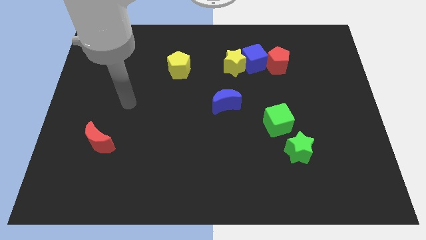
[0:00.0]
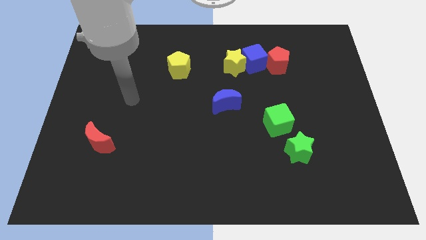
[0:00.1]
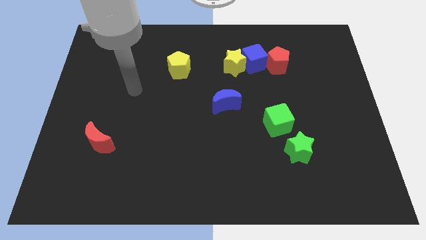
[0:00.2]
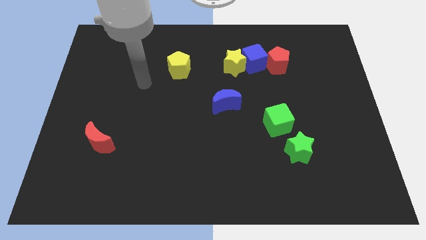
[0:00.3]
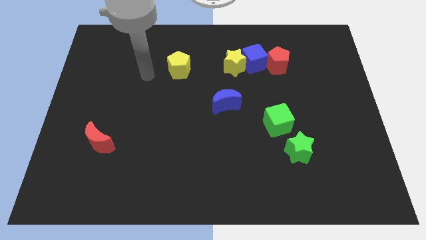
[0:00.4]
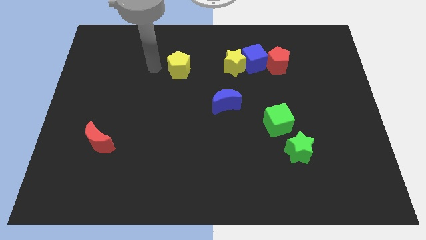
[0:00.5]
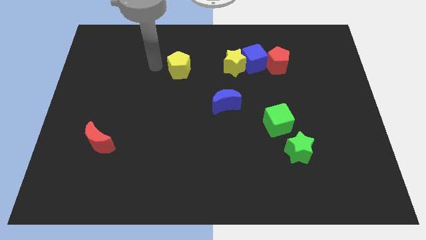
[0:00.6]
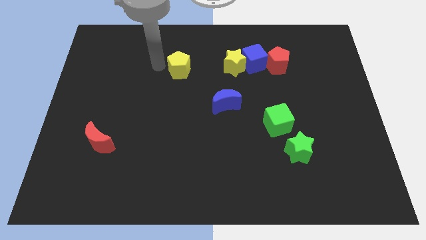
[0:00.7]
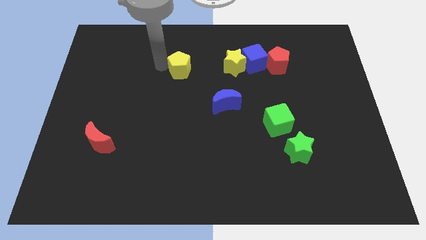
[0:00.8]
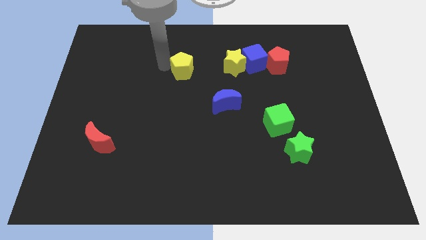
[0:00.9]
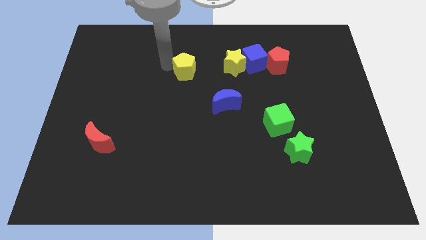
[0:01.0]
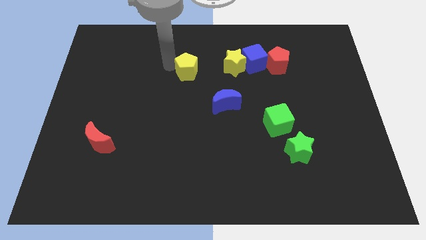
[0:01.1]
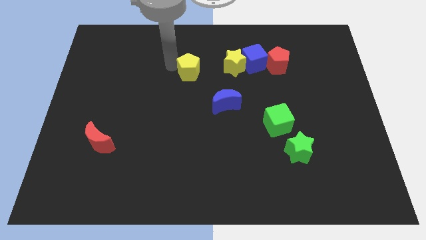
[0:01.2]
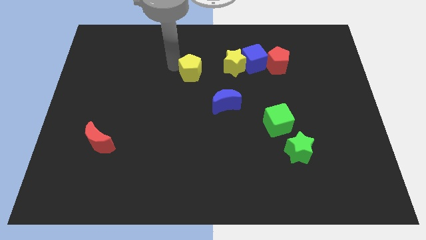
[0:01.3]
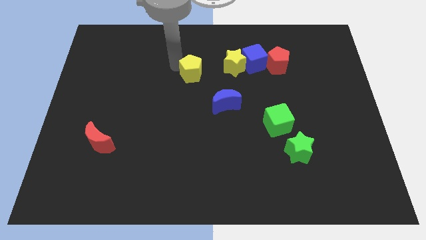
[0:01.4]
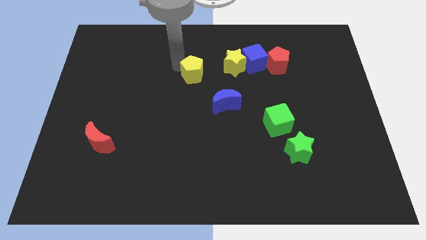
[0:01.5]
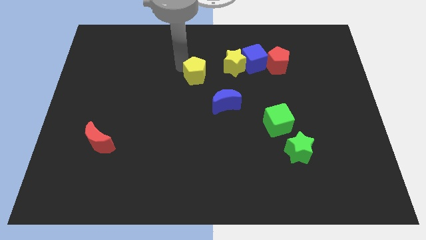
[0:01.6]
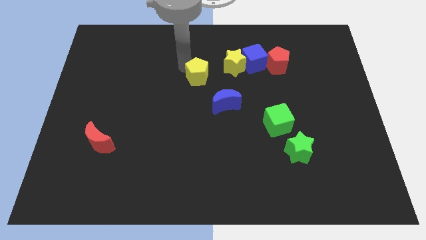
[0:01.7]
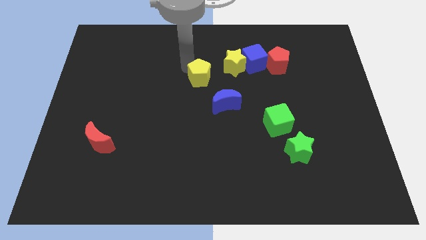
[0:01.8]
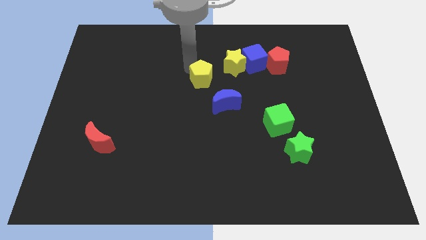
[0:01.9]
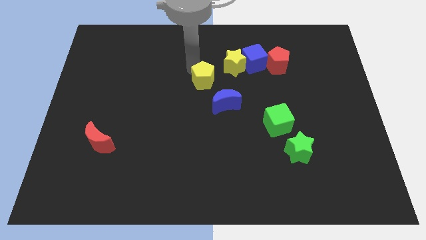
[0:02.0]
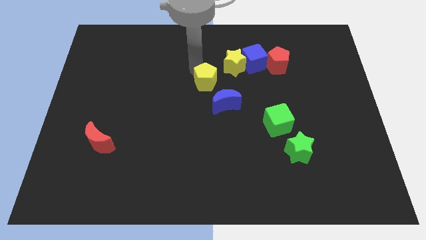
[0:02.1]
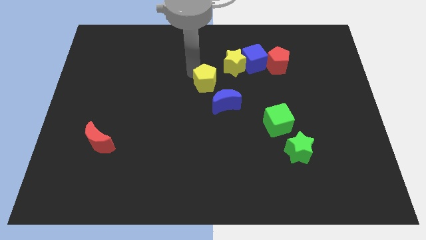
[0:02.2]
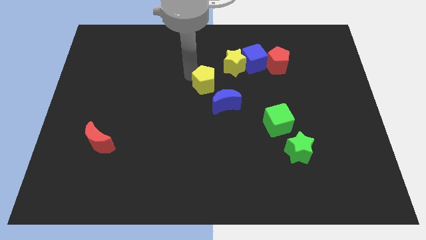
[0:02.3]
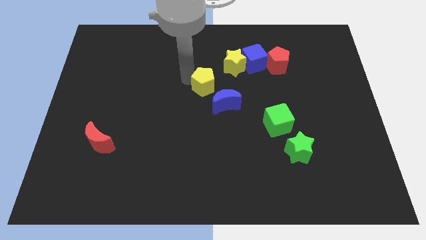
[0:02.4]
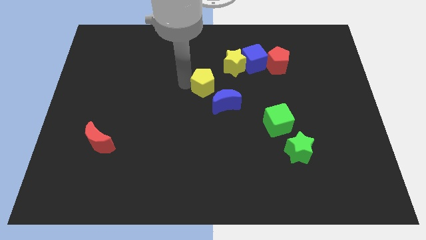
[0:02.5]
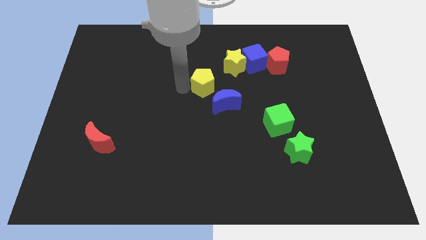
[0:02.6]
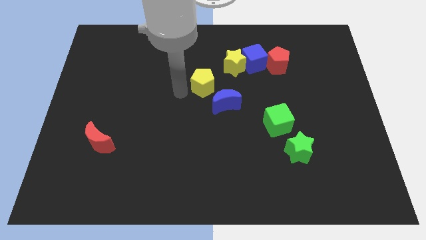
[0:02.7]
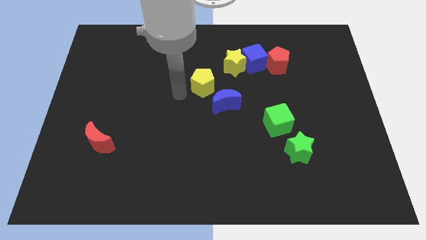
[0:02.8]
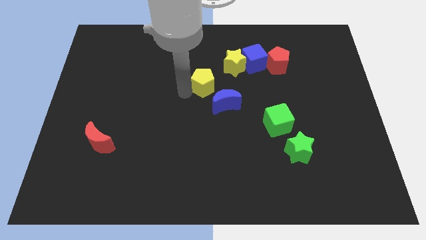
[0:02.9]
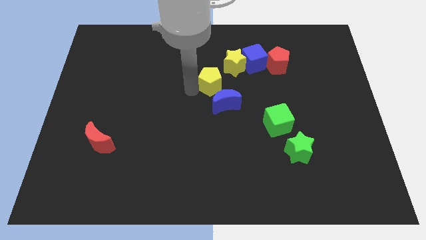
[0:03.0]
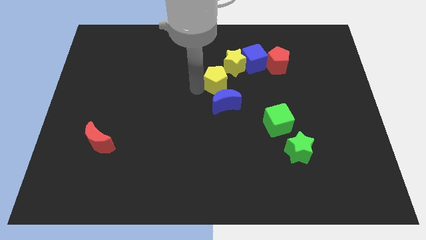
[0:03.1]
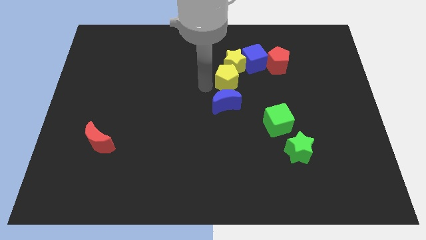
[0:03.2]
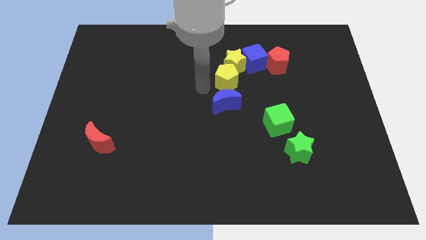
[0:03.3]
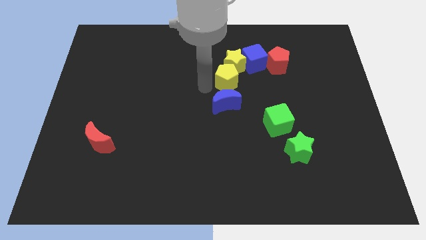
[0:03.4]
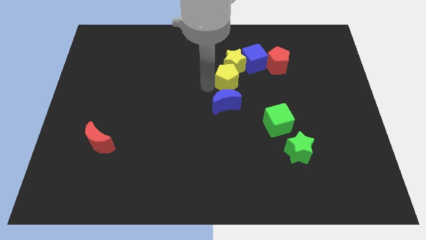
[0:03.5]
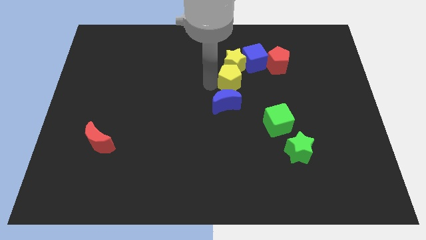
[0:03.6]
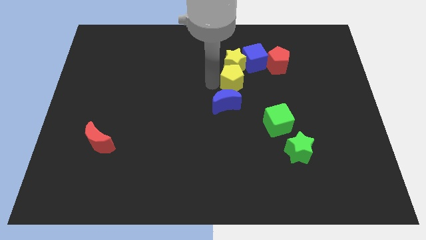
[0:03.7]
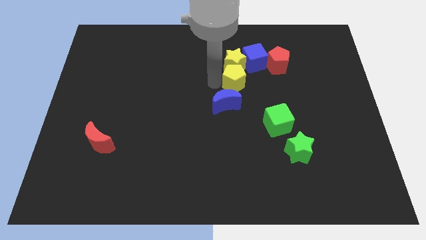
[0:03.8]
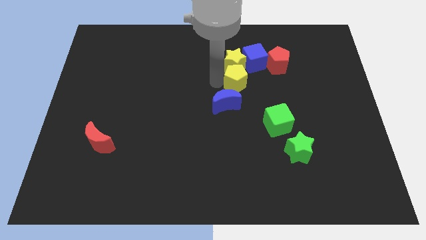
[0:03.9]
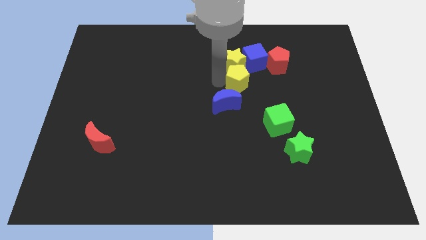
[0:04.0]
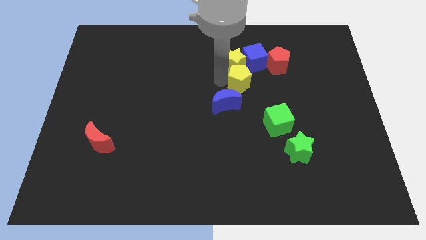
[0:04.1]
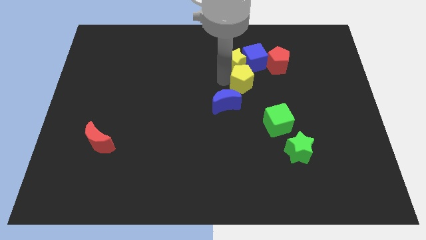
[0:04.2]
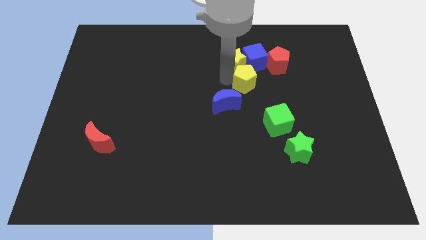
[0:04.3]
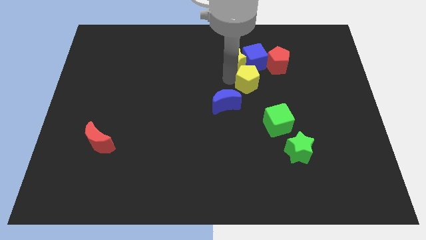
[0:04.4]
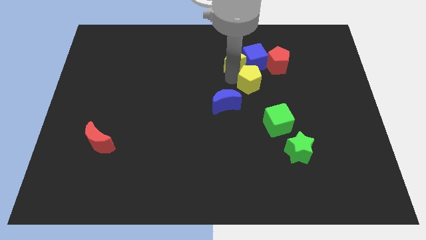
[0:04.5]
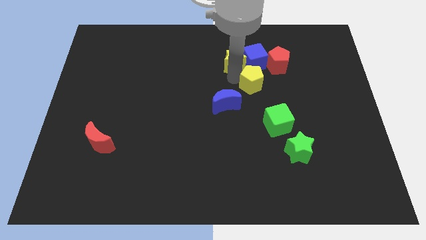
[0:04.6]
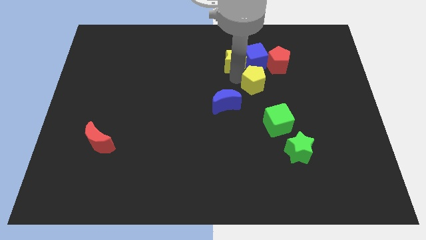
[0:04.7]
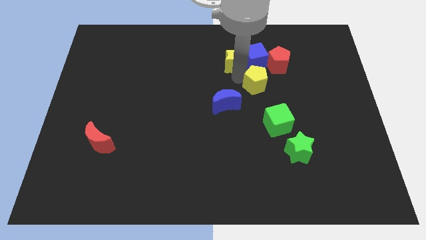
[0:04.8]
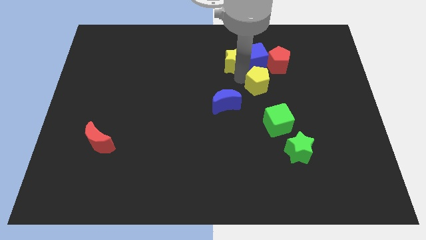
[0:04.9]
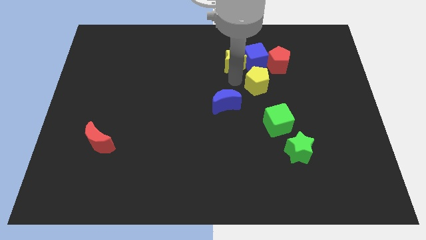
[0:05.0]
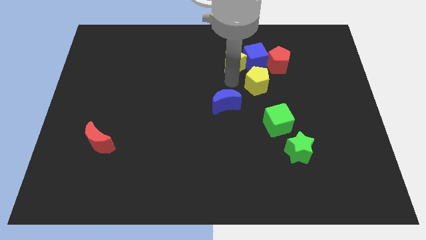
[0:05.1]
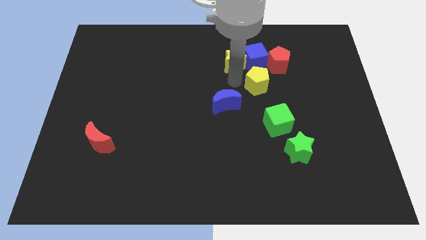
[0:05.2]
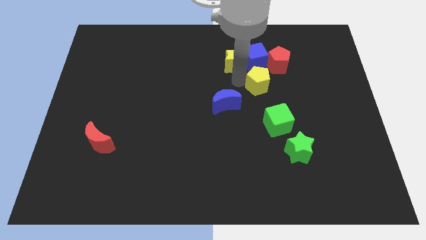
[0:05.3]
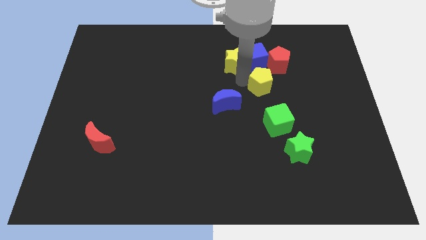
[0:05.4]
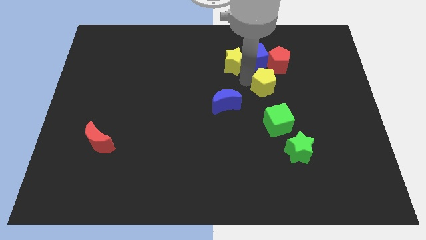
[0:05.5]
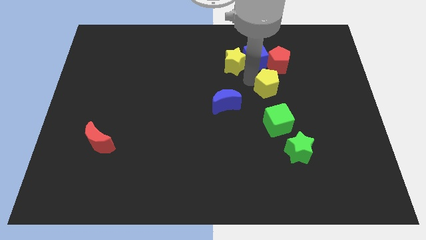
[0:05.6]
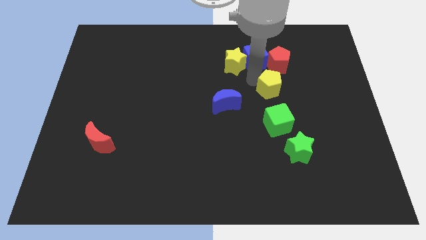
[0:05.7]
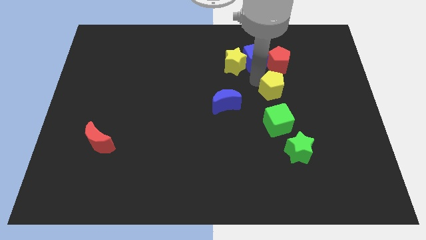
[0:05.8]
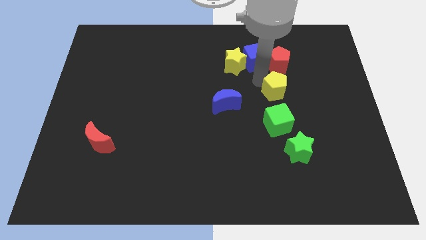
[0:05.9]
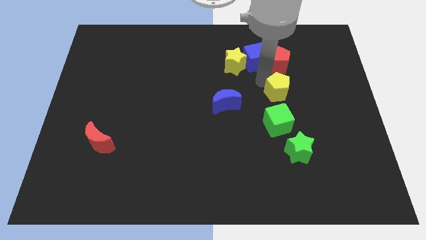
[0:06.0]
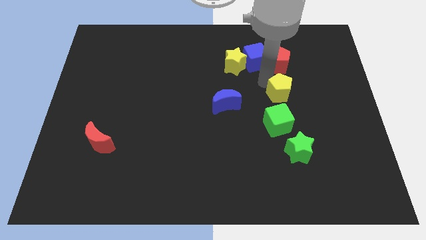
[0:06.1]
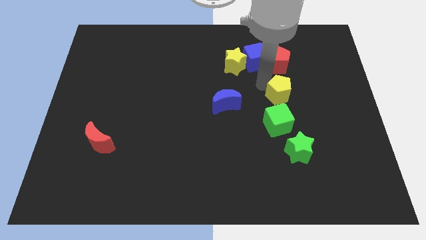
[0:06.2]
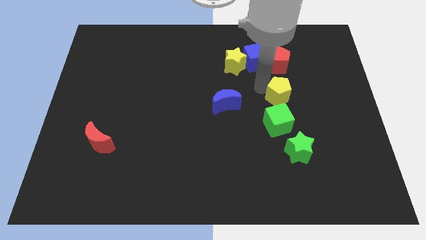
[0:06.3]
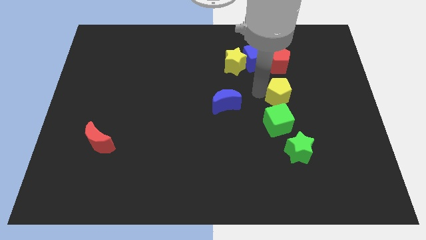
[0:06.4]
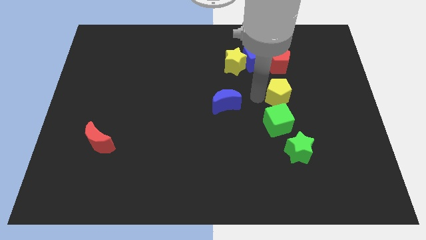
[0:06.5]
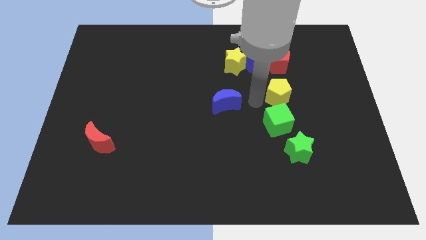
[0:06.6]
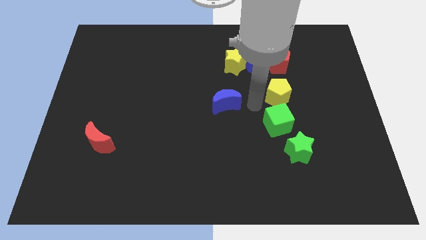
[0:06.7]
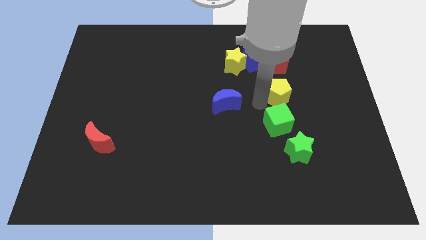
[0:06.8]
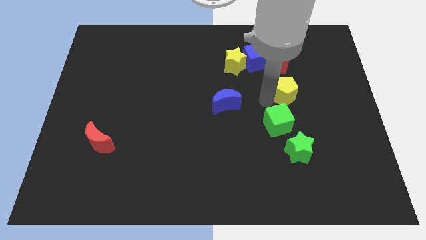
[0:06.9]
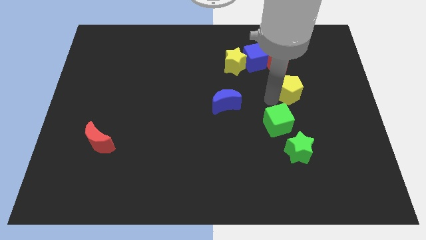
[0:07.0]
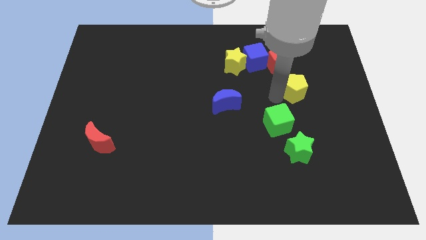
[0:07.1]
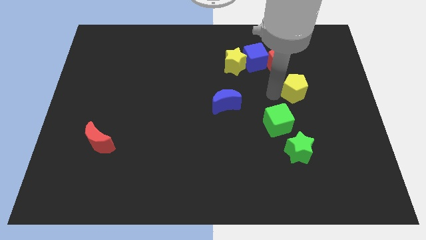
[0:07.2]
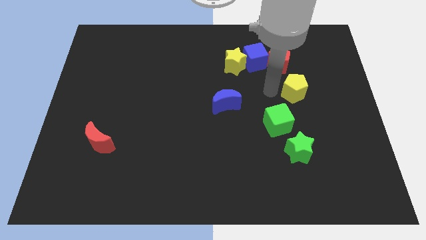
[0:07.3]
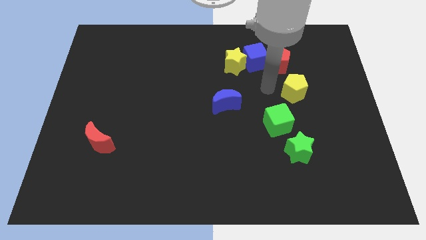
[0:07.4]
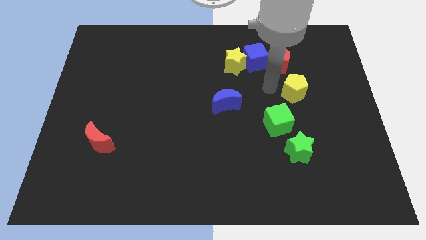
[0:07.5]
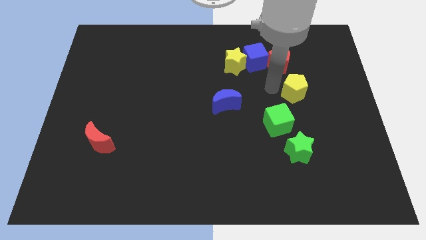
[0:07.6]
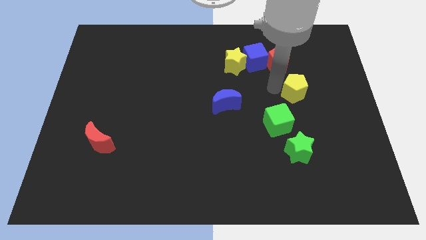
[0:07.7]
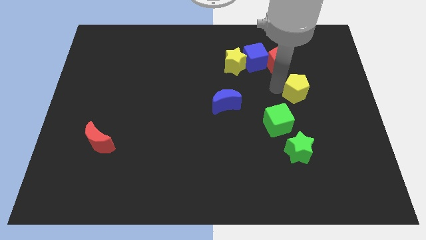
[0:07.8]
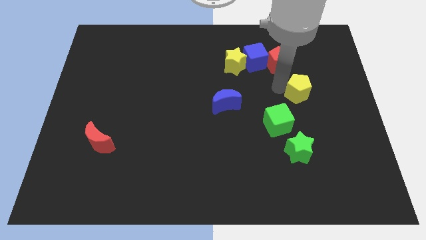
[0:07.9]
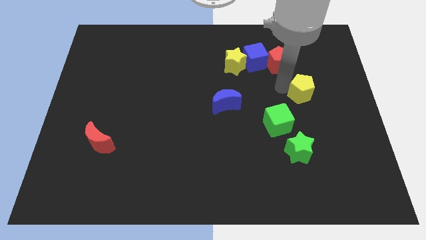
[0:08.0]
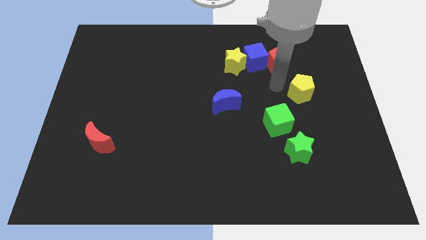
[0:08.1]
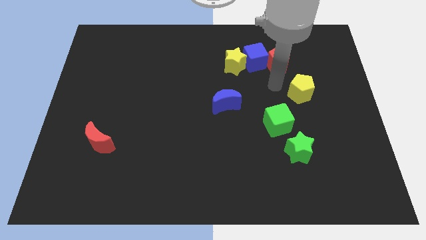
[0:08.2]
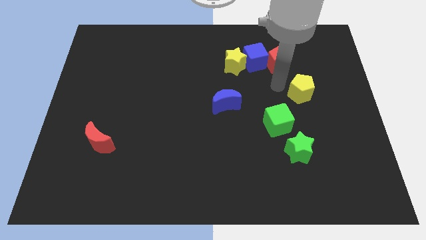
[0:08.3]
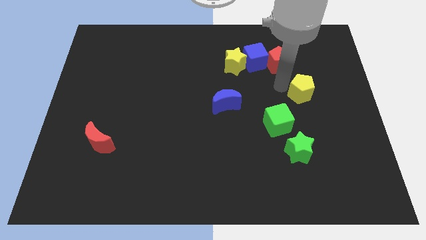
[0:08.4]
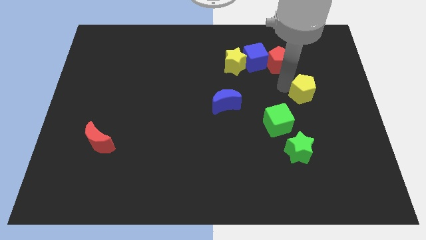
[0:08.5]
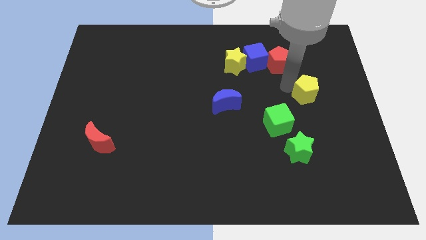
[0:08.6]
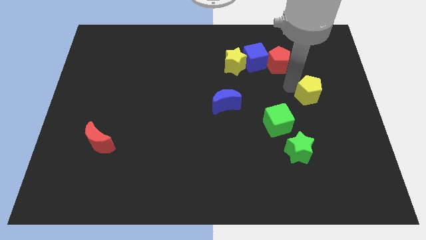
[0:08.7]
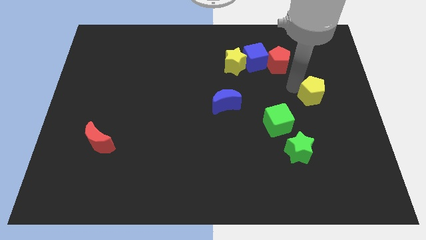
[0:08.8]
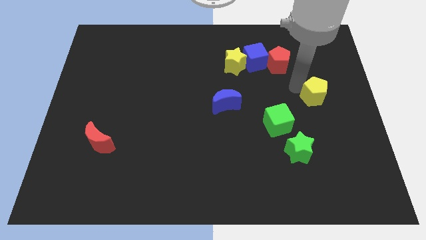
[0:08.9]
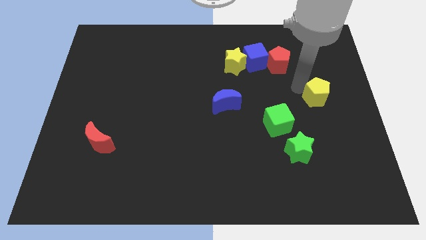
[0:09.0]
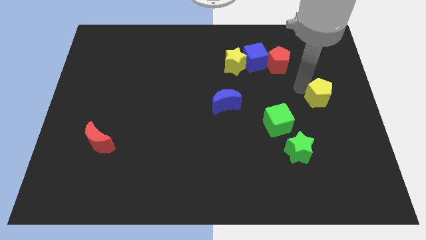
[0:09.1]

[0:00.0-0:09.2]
slide the yellow pentagon to the right side of the board
